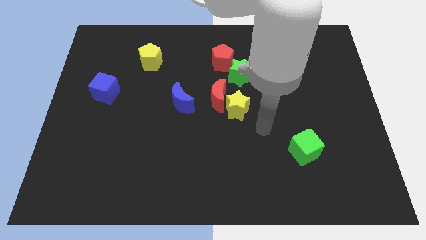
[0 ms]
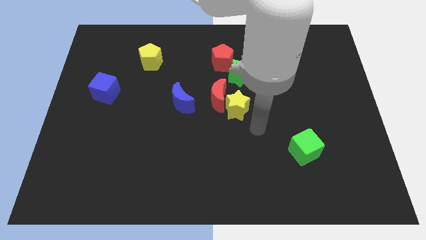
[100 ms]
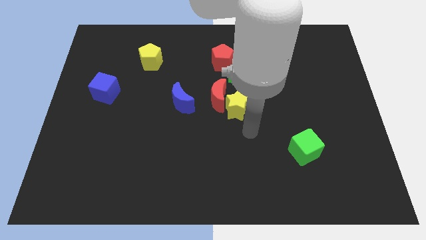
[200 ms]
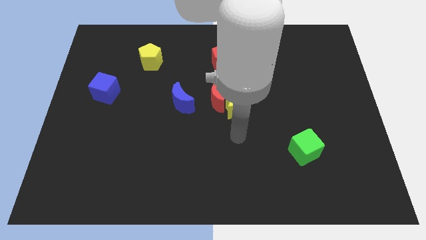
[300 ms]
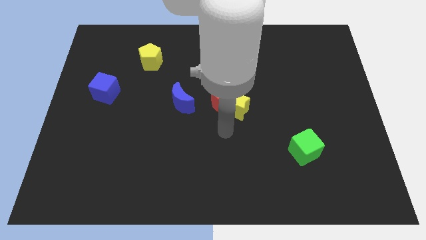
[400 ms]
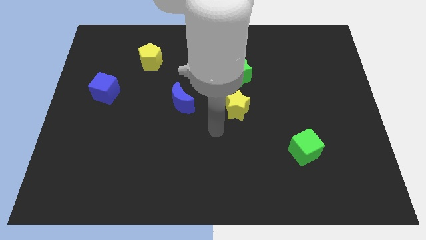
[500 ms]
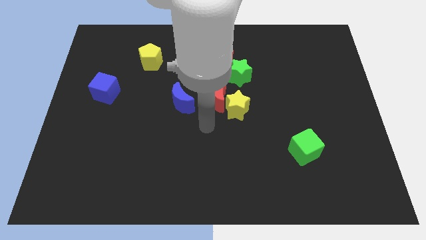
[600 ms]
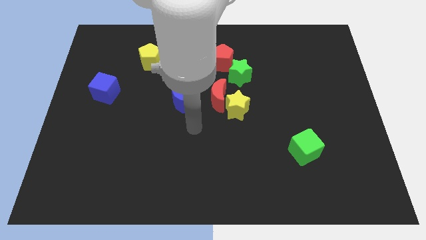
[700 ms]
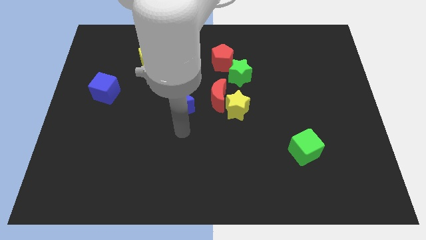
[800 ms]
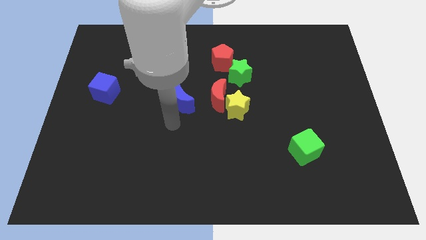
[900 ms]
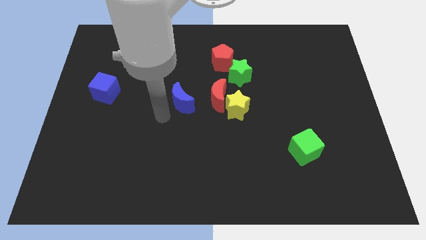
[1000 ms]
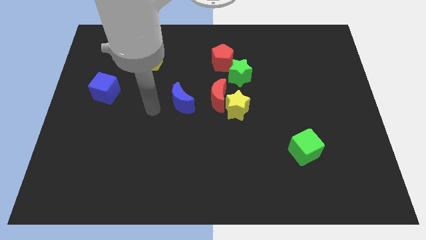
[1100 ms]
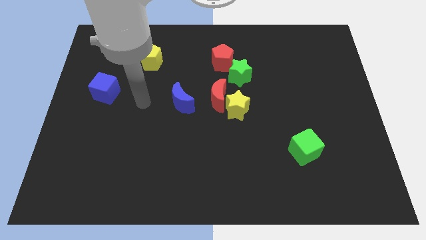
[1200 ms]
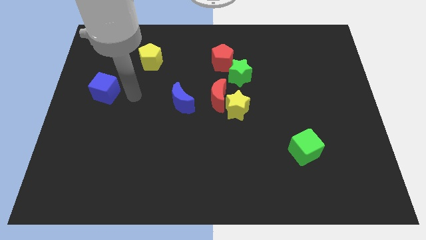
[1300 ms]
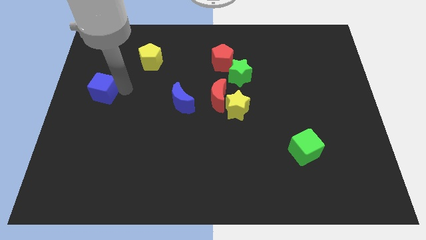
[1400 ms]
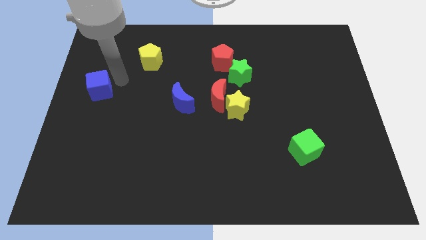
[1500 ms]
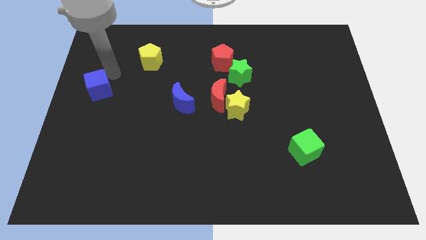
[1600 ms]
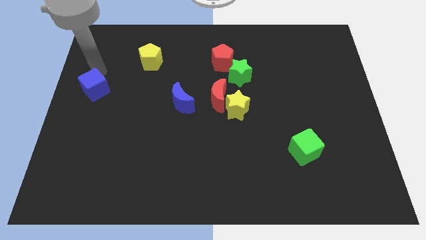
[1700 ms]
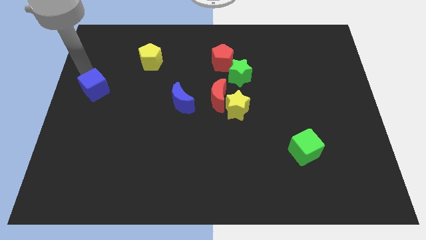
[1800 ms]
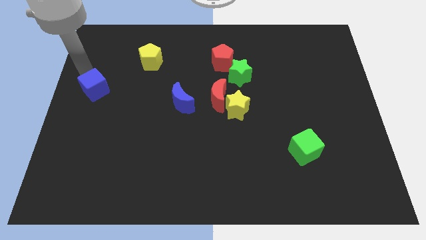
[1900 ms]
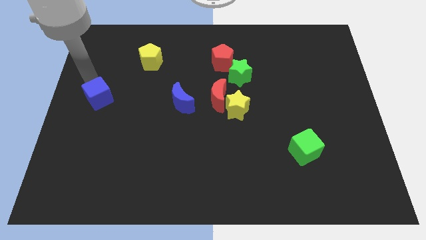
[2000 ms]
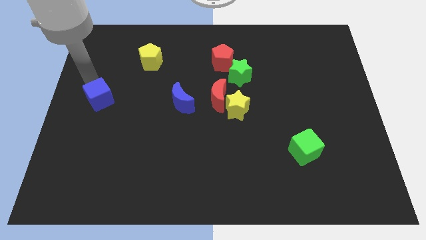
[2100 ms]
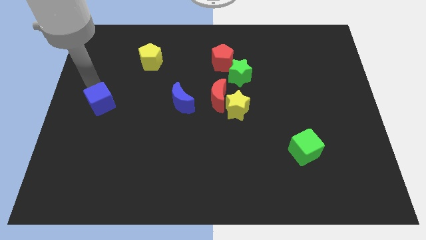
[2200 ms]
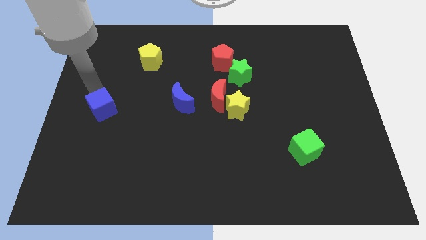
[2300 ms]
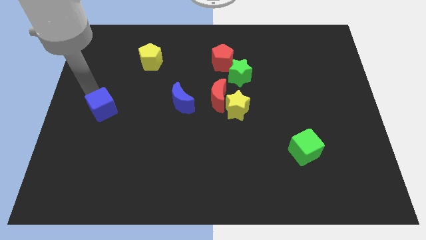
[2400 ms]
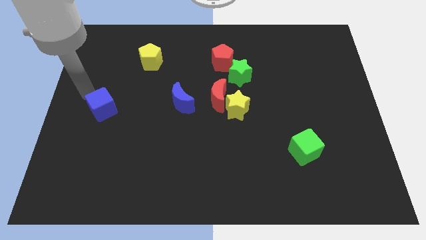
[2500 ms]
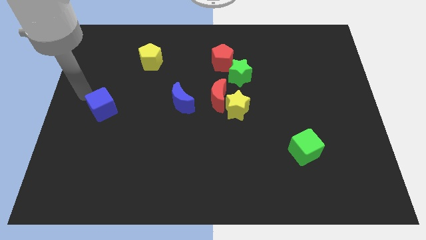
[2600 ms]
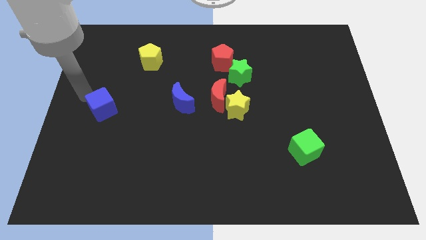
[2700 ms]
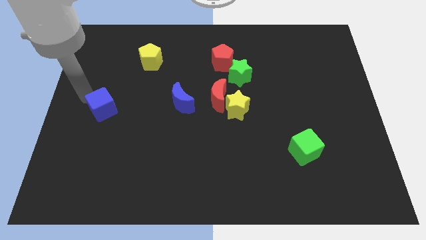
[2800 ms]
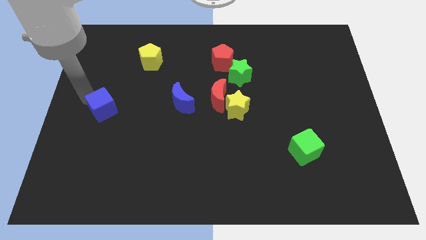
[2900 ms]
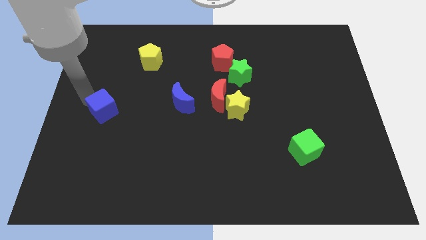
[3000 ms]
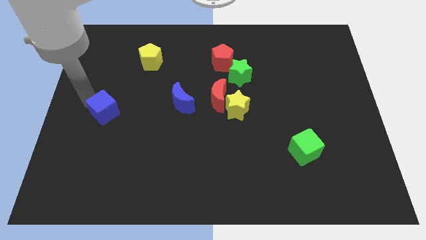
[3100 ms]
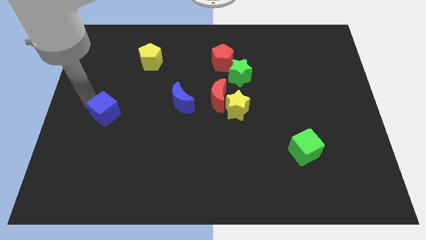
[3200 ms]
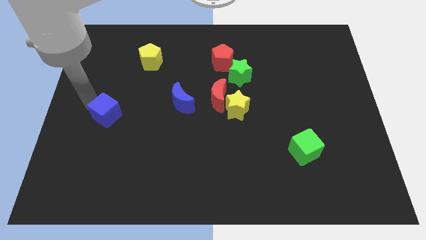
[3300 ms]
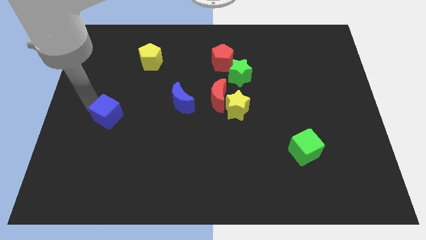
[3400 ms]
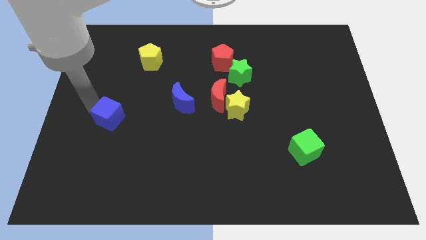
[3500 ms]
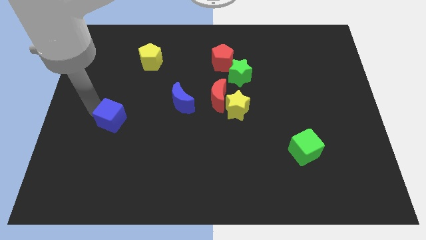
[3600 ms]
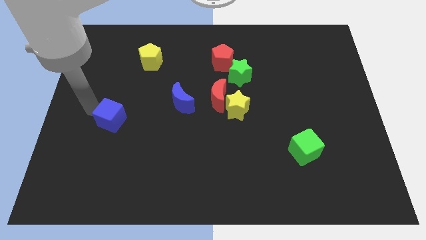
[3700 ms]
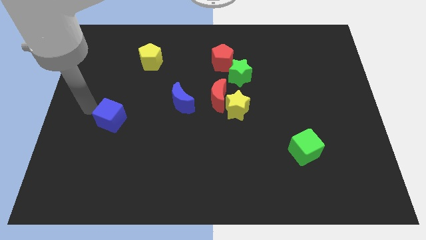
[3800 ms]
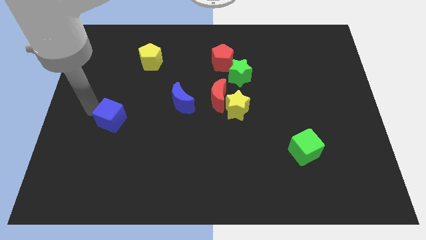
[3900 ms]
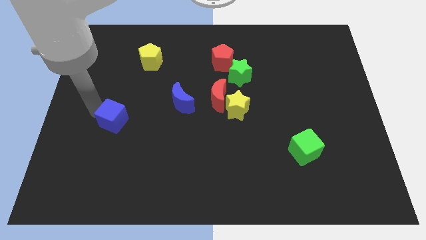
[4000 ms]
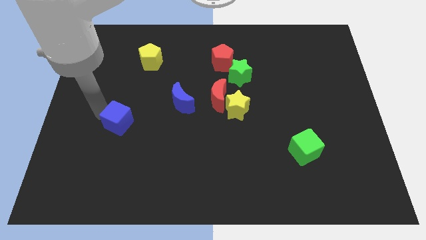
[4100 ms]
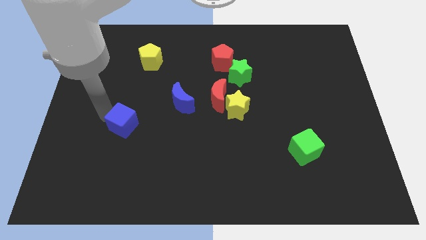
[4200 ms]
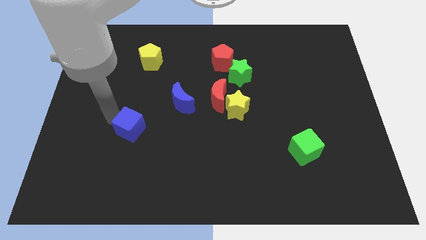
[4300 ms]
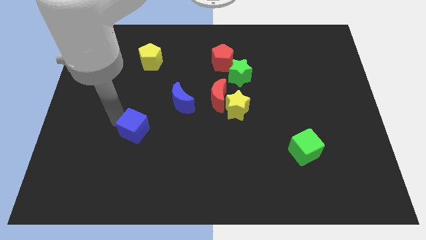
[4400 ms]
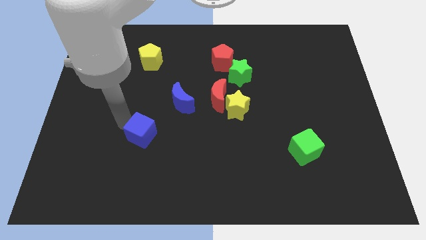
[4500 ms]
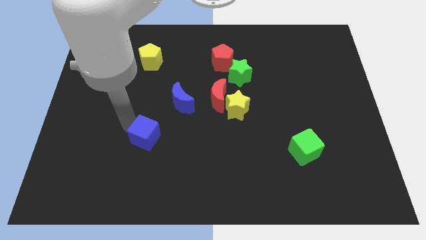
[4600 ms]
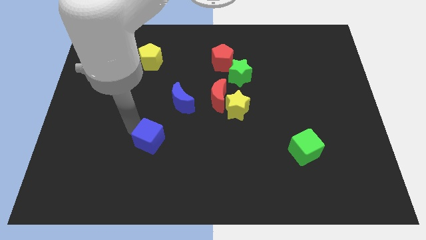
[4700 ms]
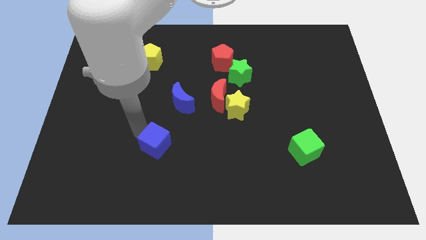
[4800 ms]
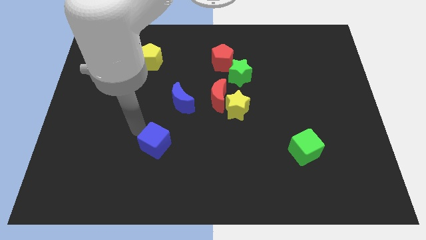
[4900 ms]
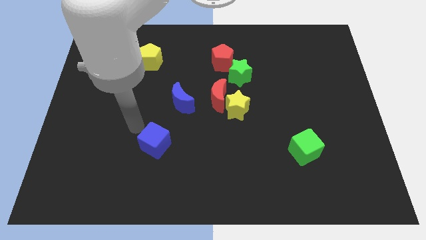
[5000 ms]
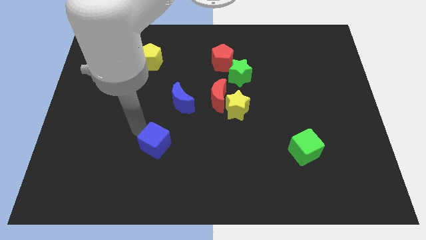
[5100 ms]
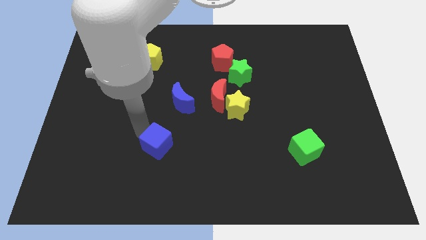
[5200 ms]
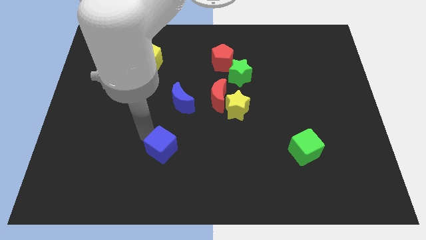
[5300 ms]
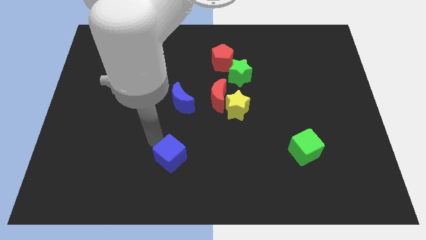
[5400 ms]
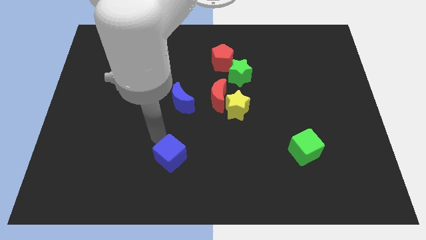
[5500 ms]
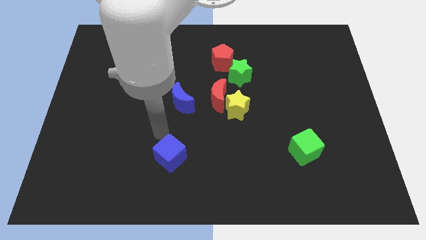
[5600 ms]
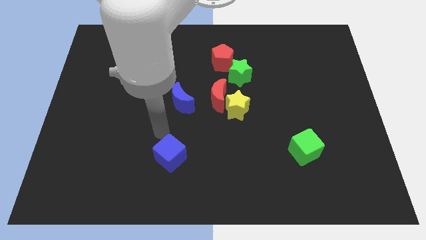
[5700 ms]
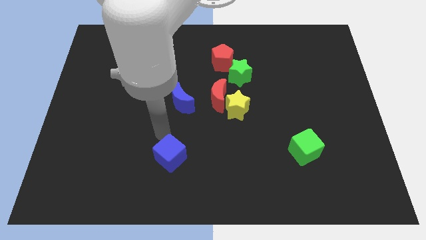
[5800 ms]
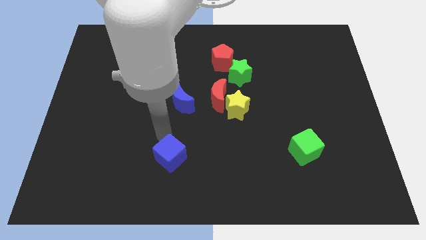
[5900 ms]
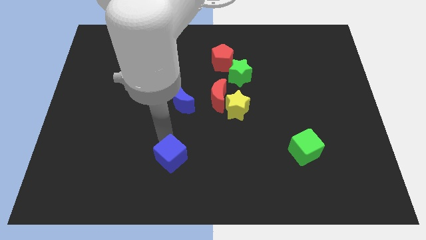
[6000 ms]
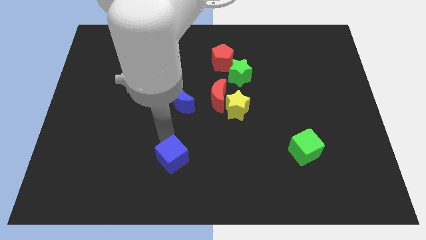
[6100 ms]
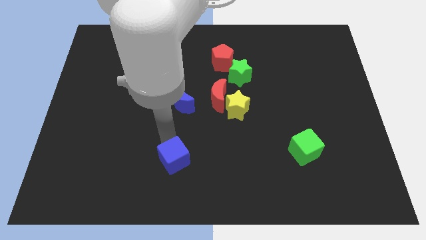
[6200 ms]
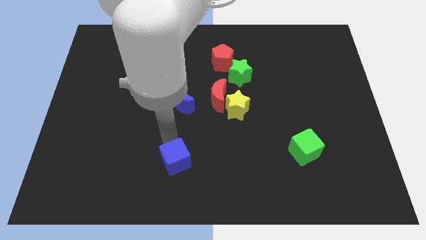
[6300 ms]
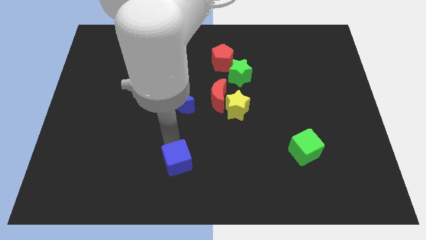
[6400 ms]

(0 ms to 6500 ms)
slide the blue cube to the bottom
